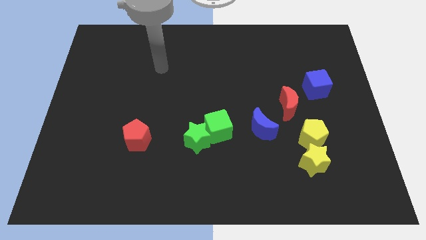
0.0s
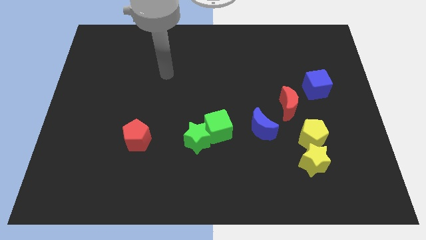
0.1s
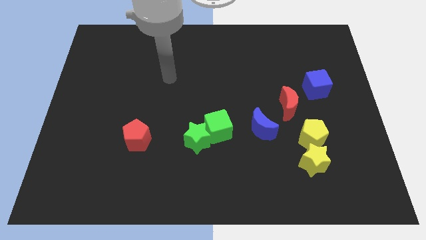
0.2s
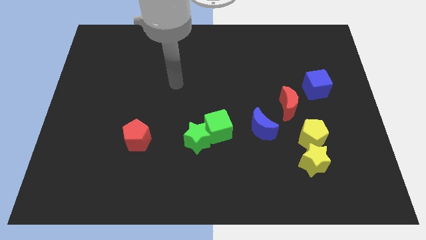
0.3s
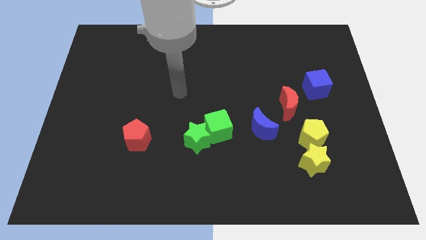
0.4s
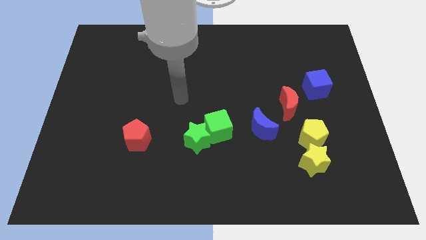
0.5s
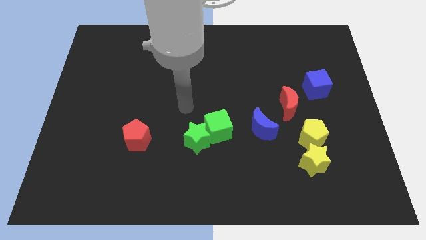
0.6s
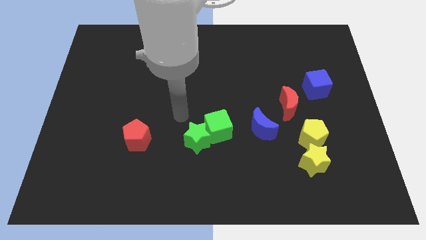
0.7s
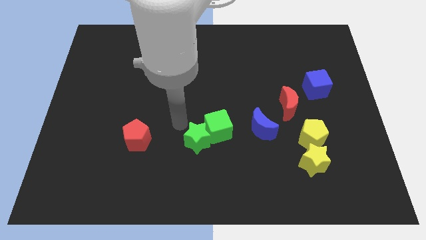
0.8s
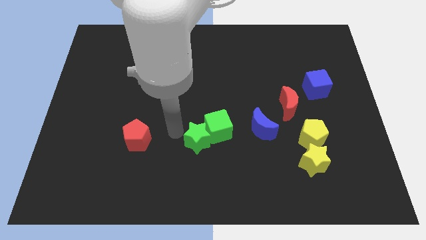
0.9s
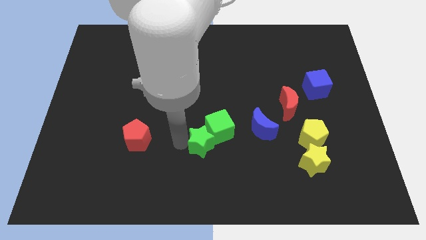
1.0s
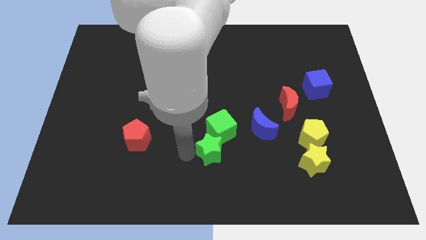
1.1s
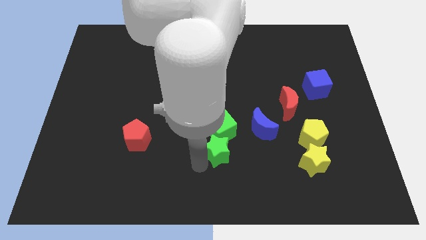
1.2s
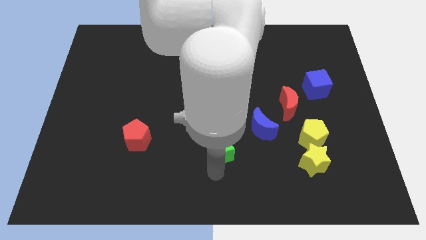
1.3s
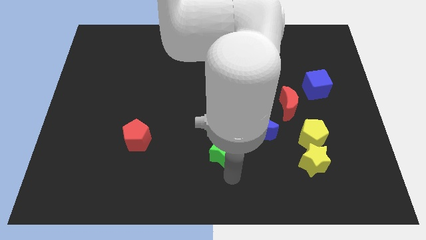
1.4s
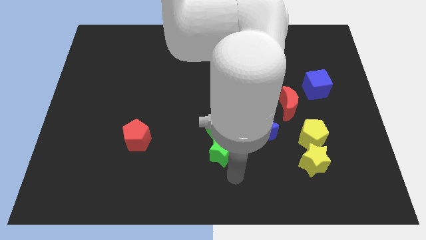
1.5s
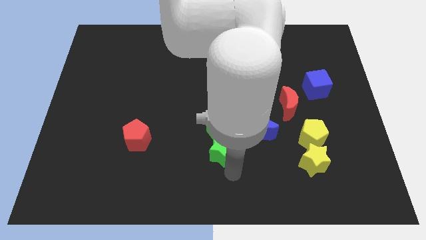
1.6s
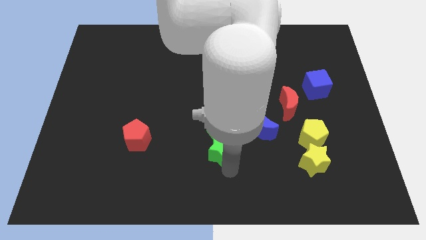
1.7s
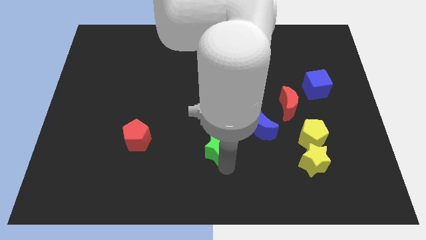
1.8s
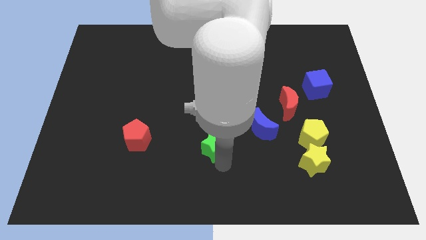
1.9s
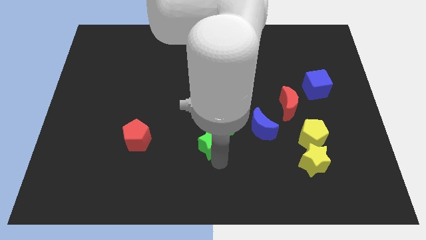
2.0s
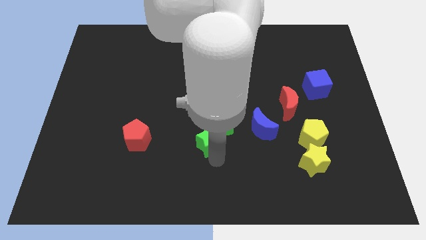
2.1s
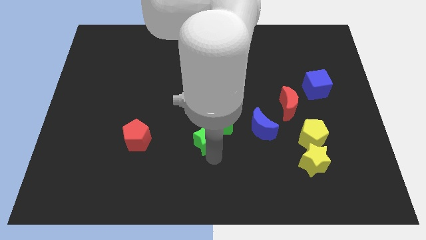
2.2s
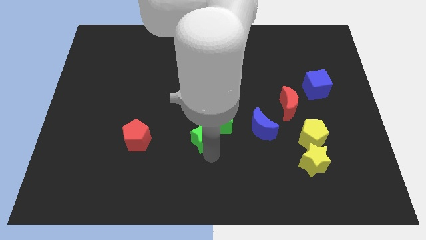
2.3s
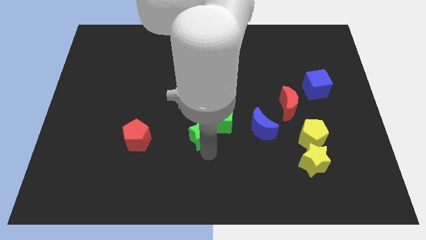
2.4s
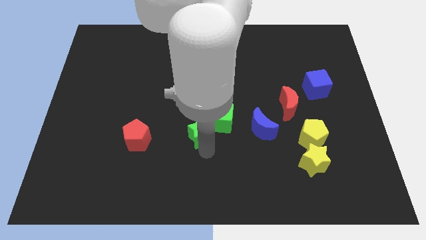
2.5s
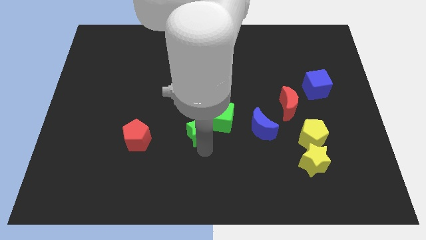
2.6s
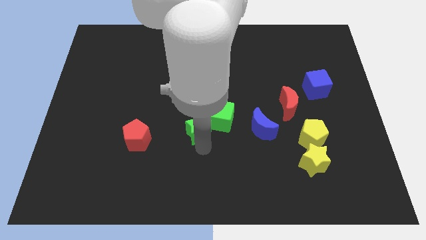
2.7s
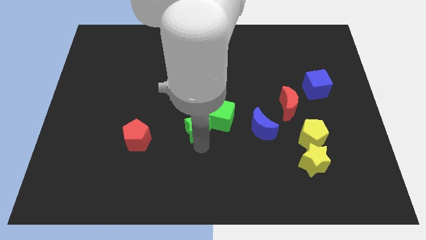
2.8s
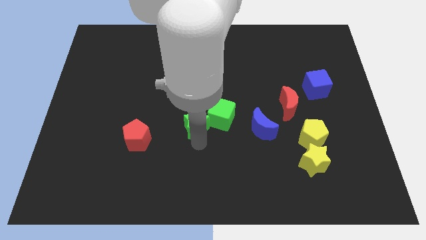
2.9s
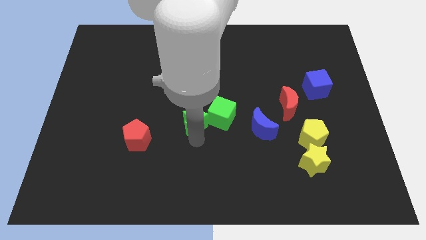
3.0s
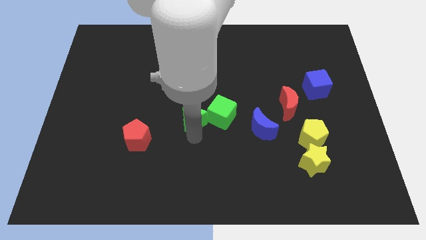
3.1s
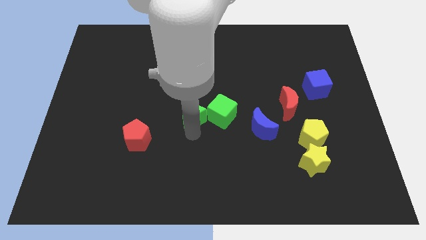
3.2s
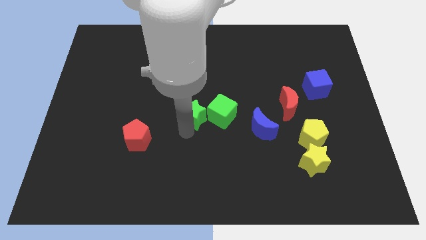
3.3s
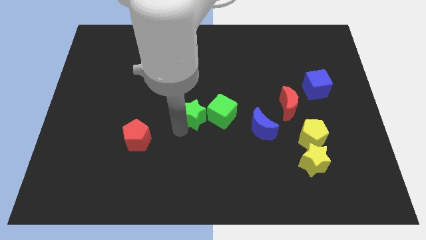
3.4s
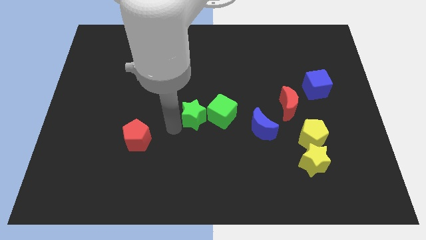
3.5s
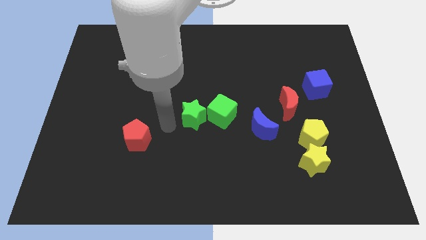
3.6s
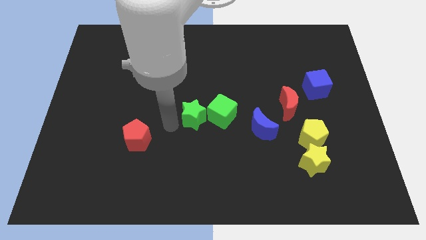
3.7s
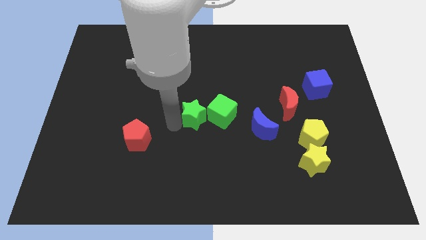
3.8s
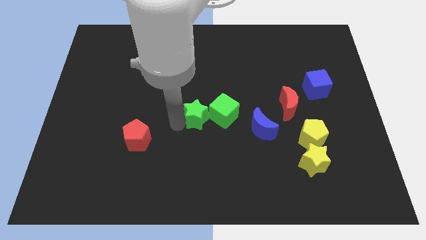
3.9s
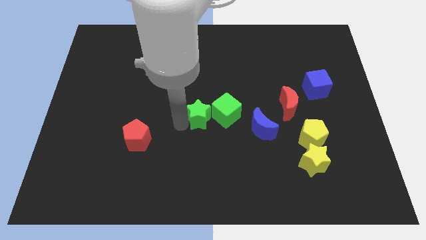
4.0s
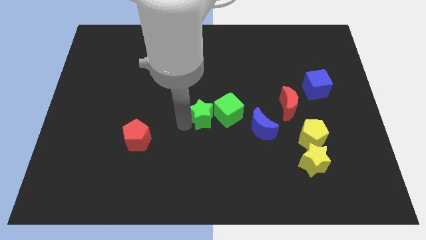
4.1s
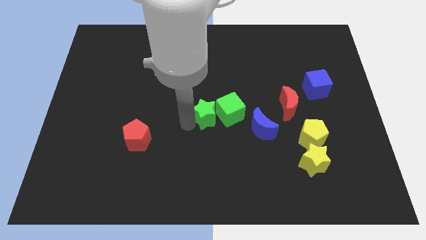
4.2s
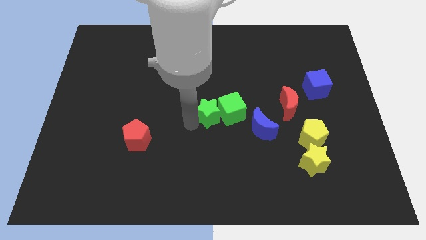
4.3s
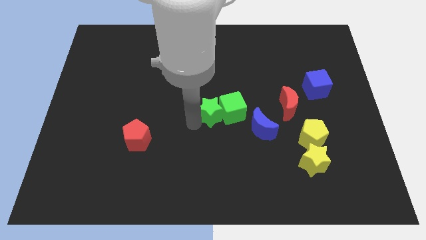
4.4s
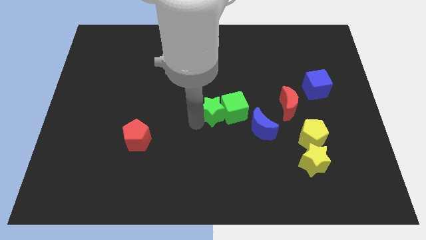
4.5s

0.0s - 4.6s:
slightly push the green star diagonally up and right

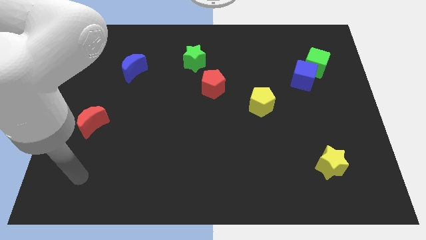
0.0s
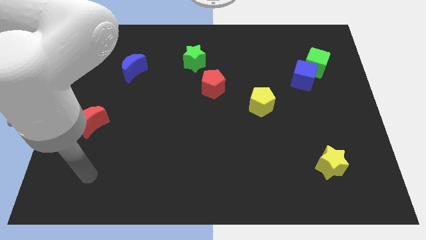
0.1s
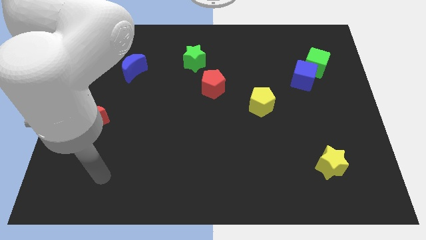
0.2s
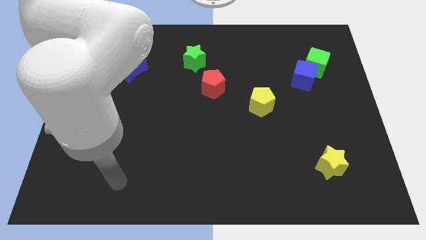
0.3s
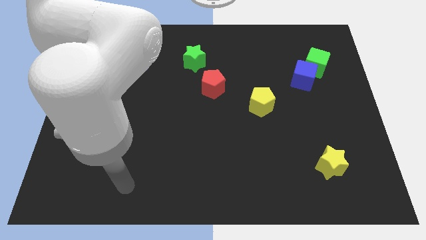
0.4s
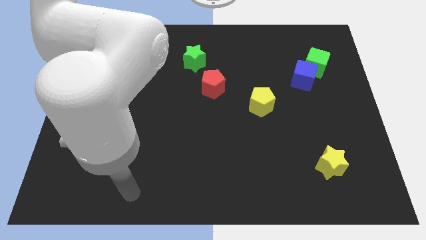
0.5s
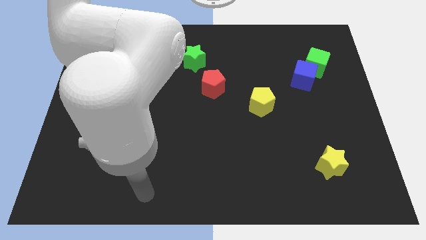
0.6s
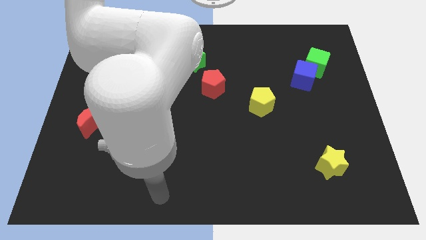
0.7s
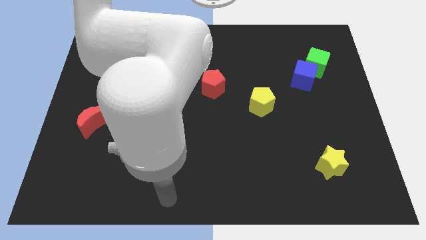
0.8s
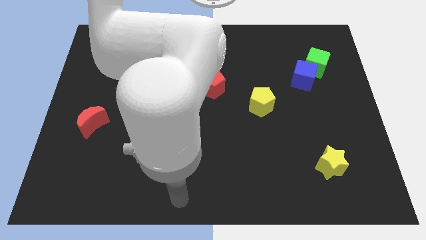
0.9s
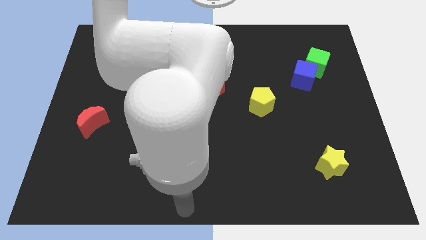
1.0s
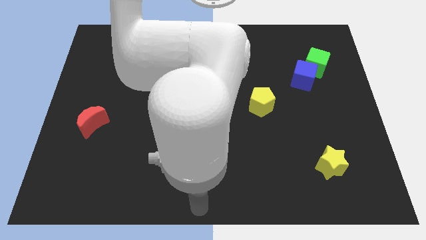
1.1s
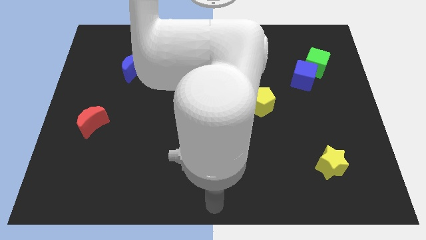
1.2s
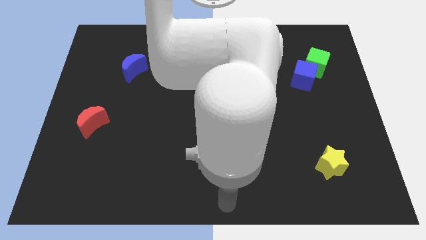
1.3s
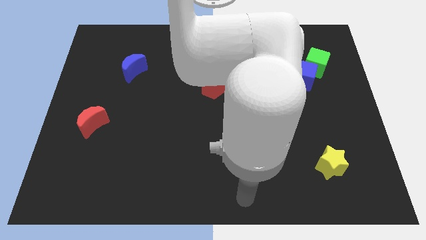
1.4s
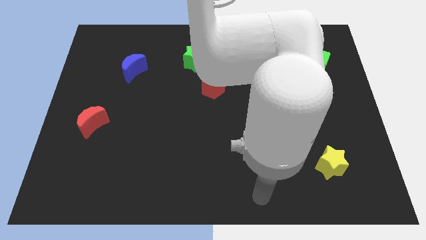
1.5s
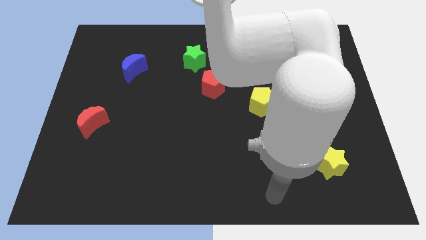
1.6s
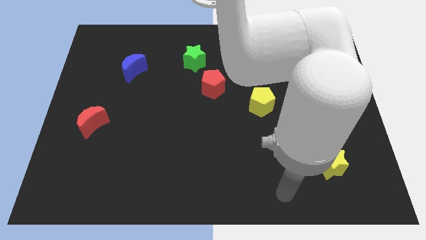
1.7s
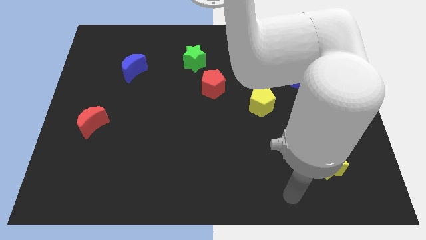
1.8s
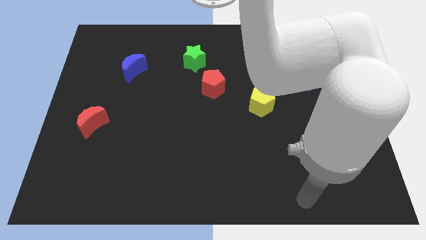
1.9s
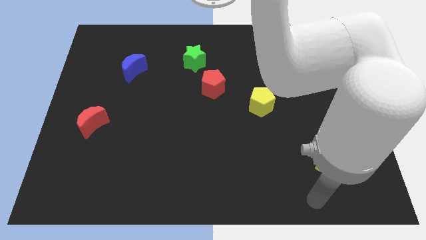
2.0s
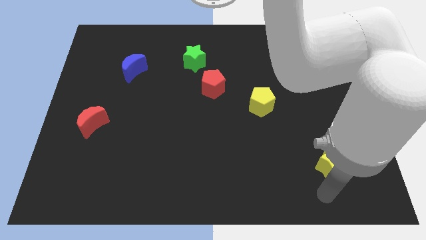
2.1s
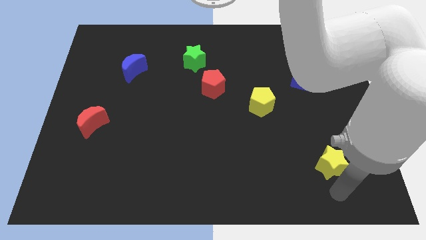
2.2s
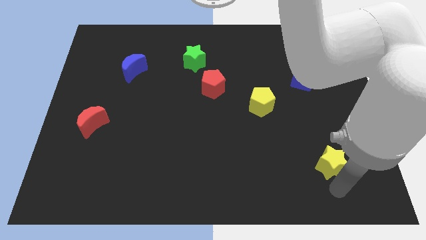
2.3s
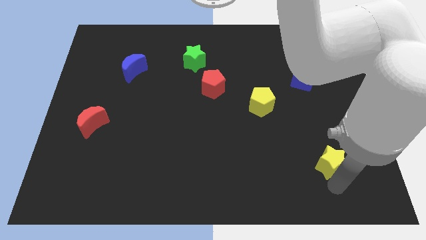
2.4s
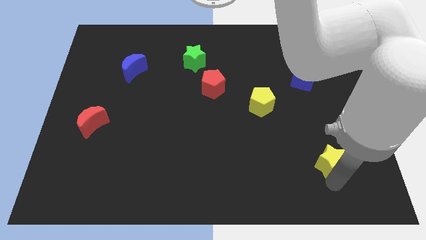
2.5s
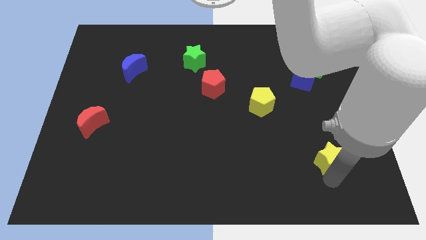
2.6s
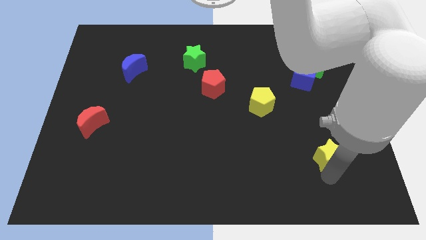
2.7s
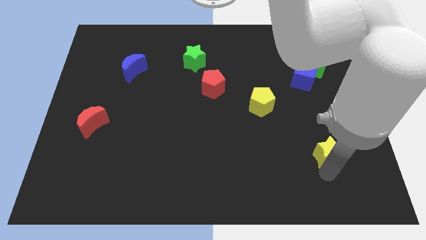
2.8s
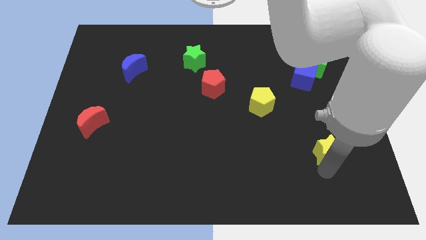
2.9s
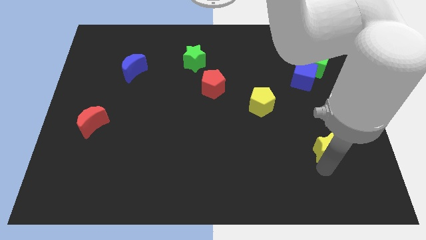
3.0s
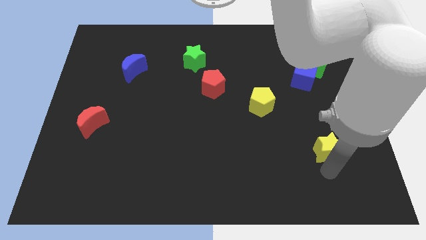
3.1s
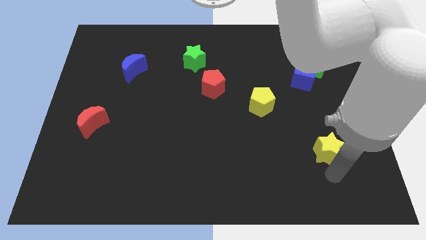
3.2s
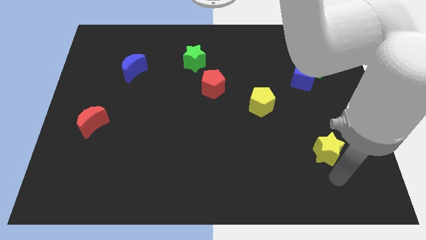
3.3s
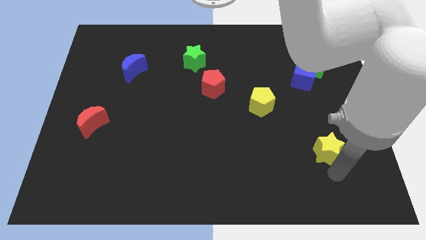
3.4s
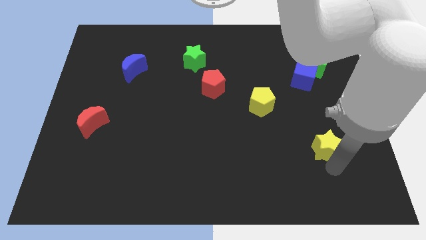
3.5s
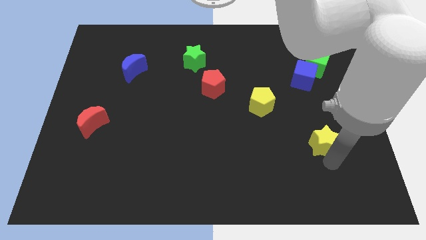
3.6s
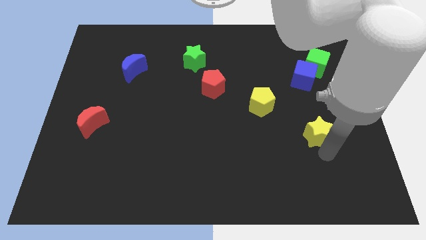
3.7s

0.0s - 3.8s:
push the yellow star a little upwards
